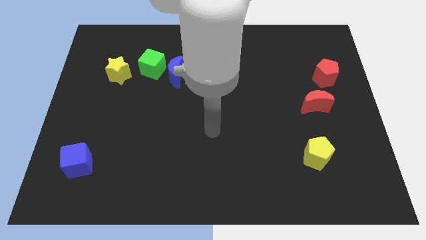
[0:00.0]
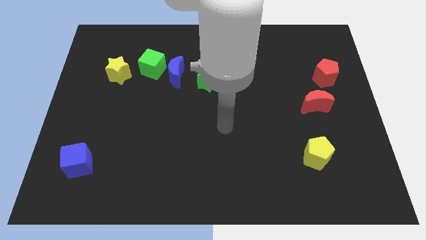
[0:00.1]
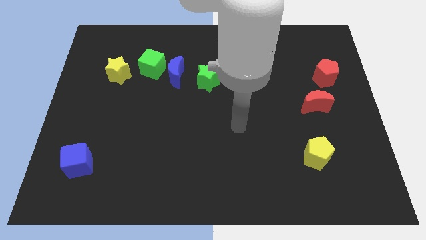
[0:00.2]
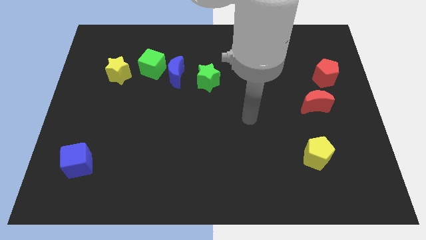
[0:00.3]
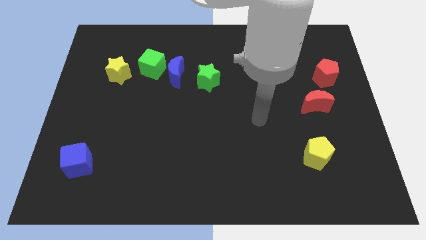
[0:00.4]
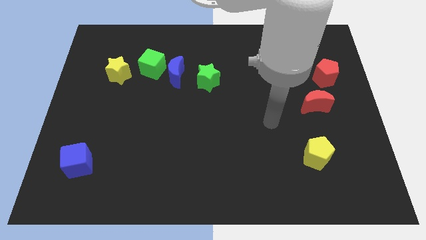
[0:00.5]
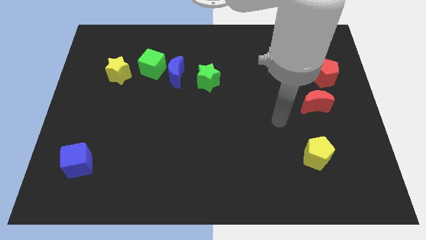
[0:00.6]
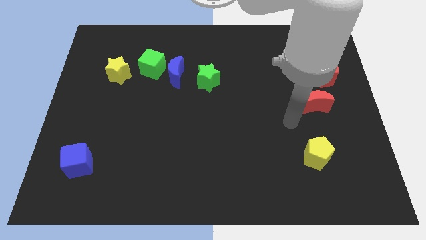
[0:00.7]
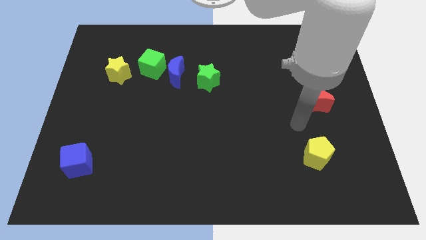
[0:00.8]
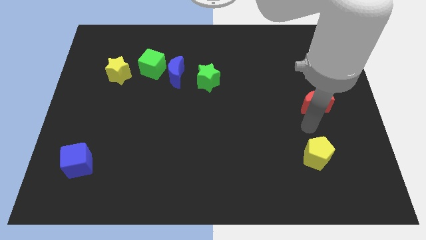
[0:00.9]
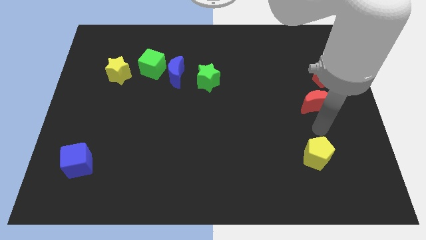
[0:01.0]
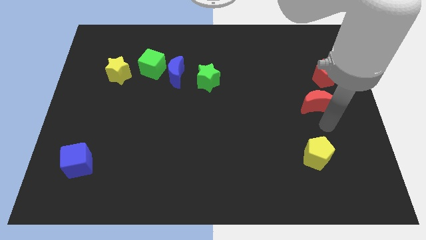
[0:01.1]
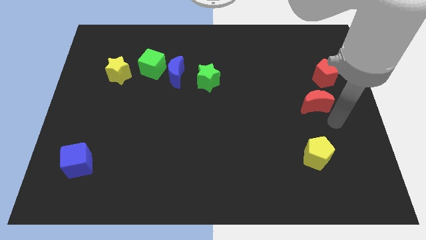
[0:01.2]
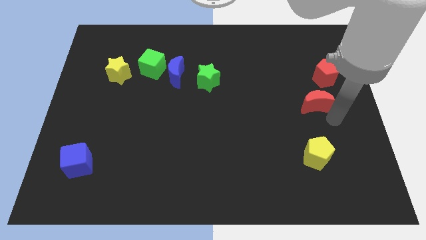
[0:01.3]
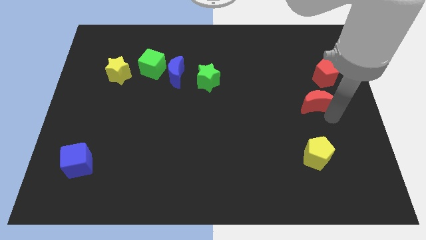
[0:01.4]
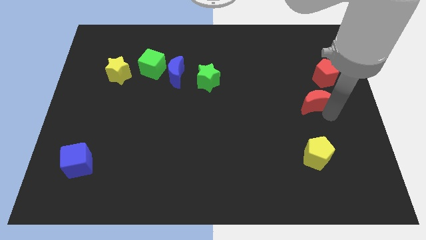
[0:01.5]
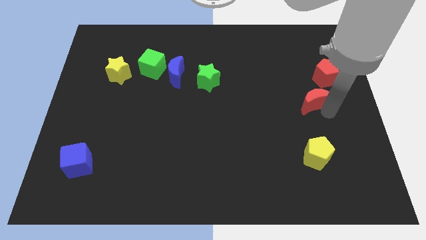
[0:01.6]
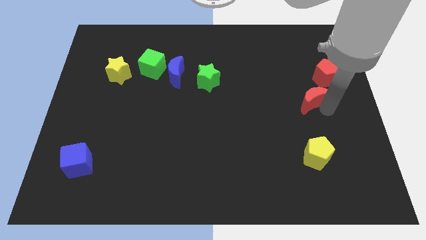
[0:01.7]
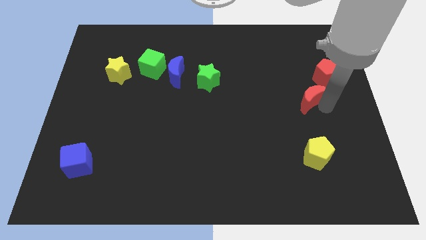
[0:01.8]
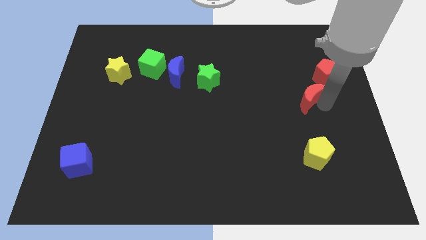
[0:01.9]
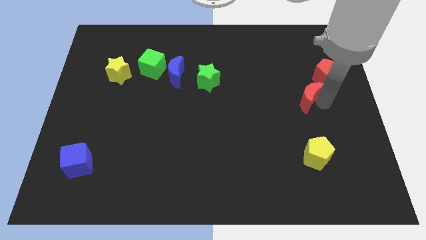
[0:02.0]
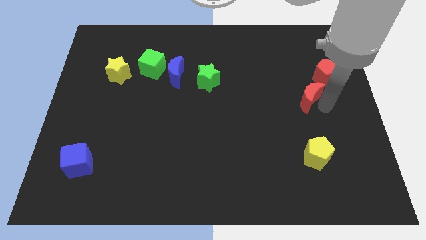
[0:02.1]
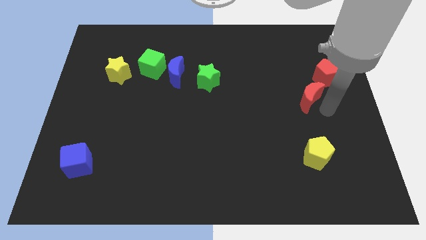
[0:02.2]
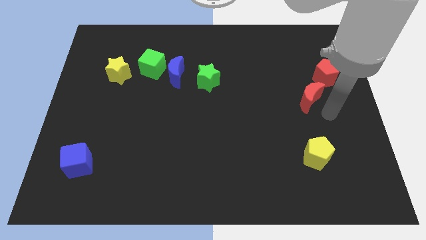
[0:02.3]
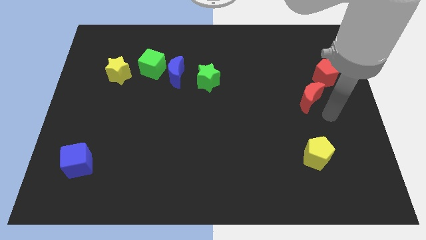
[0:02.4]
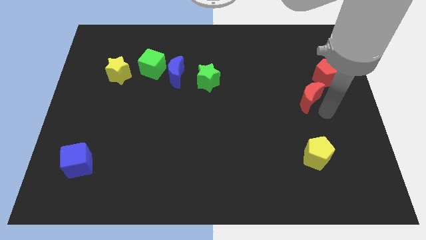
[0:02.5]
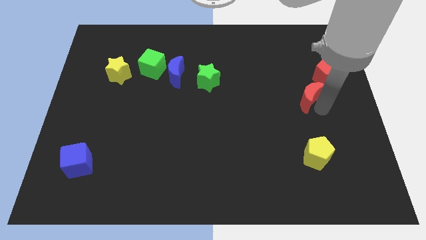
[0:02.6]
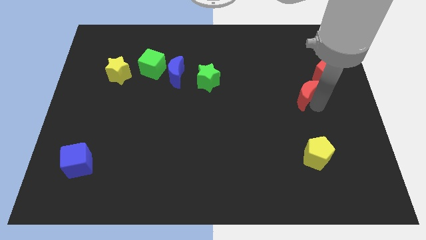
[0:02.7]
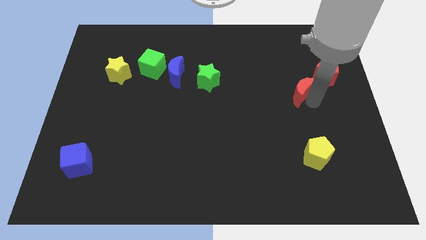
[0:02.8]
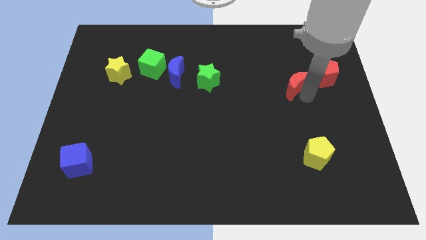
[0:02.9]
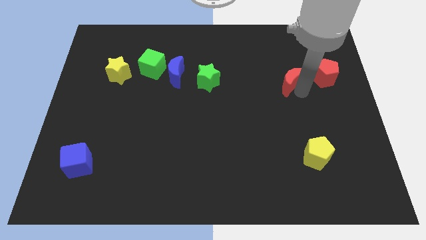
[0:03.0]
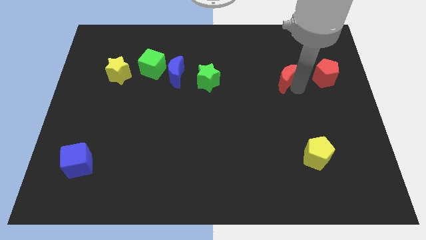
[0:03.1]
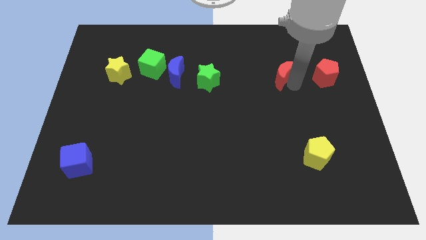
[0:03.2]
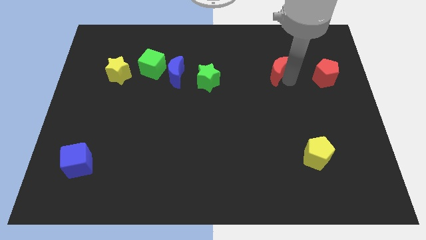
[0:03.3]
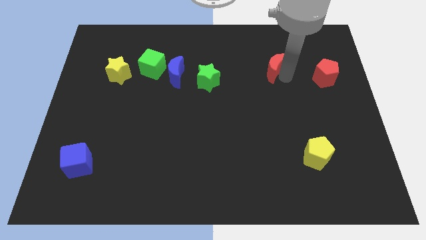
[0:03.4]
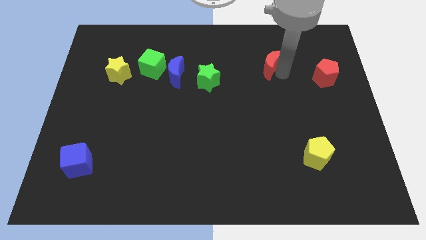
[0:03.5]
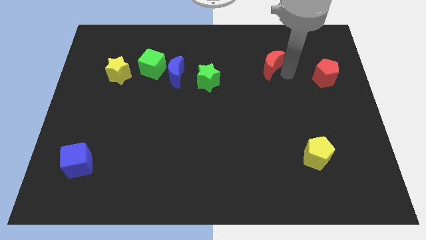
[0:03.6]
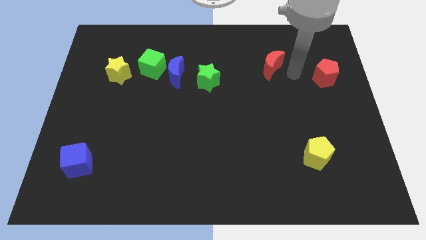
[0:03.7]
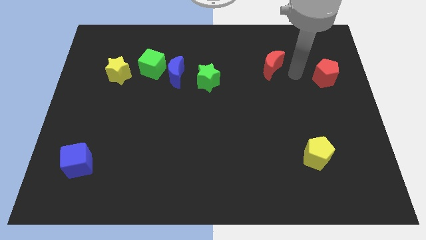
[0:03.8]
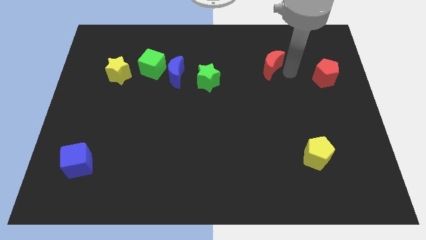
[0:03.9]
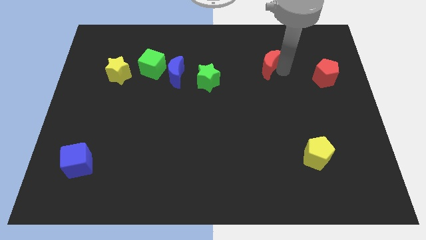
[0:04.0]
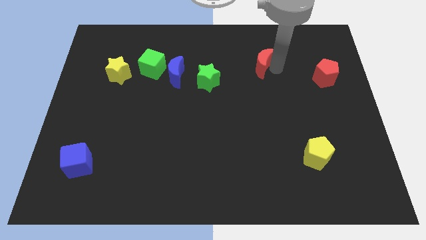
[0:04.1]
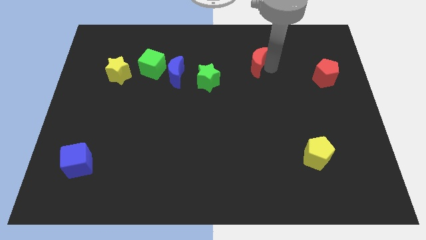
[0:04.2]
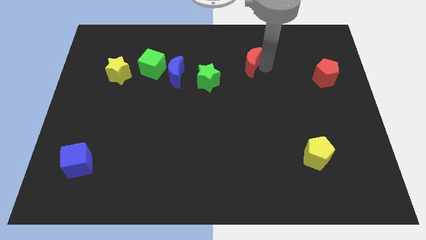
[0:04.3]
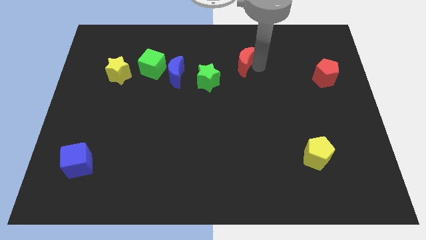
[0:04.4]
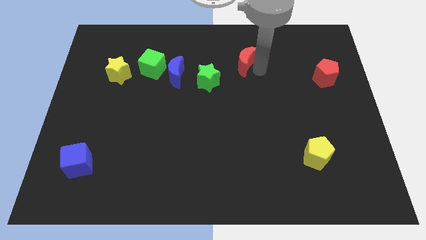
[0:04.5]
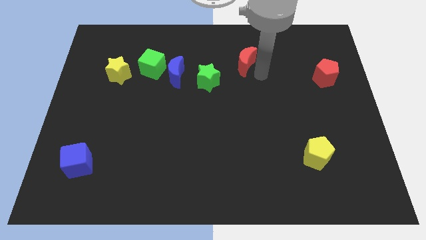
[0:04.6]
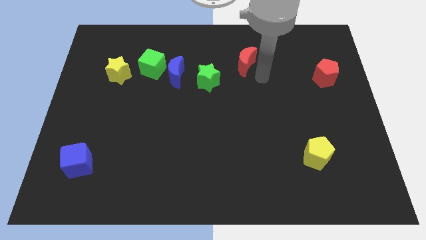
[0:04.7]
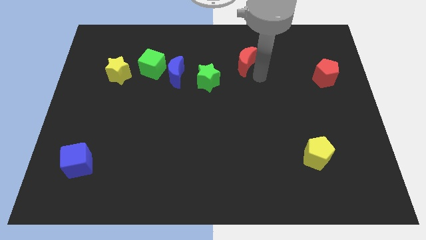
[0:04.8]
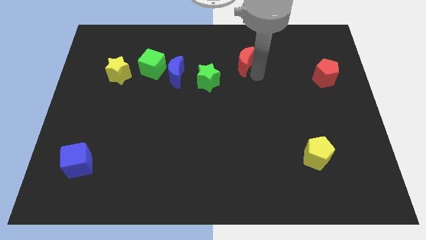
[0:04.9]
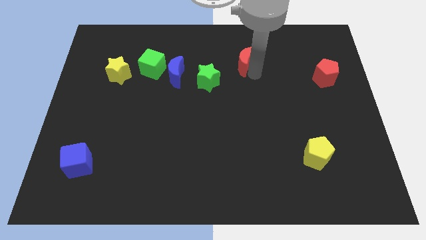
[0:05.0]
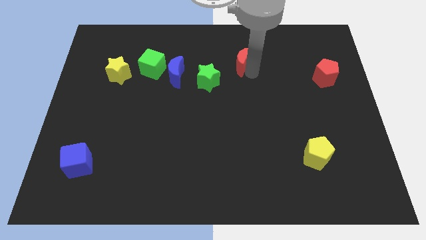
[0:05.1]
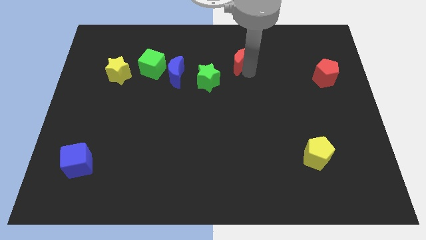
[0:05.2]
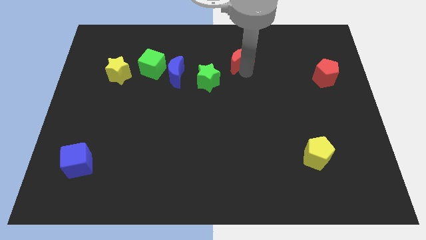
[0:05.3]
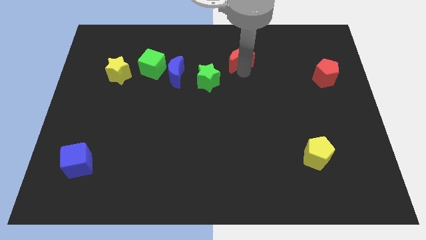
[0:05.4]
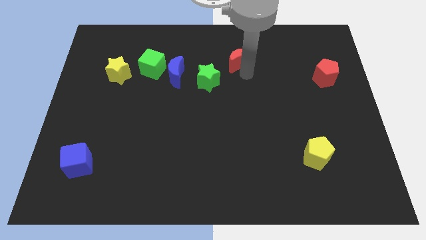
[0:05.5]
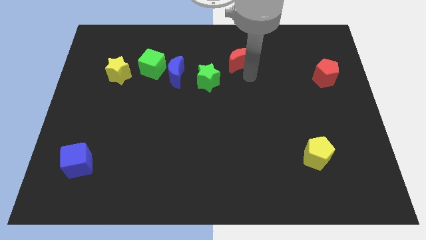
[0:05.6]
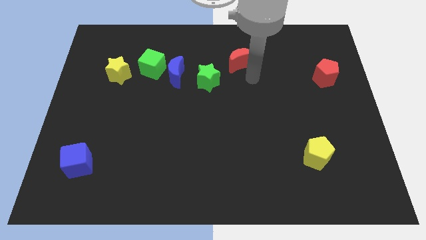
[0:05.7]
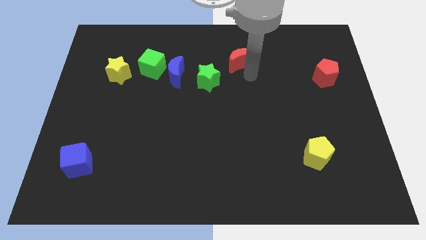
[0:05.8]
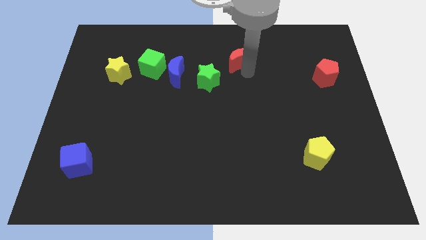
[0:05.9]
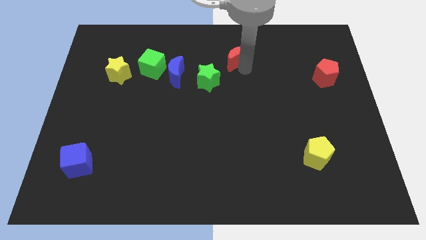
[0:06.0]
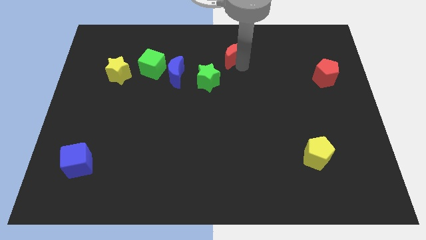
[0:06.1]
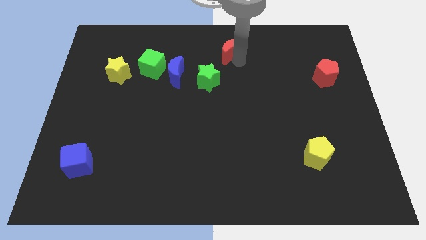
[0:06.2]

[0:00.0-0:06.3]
put the red moon to the top side
